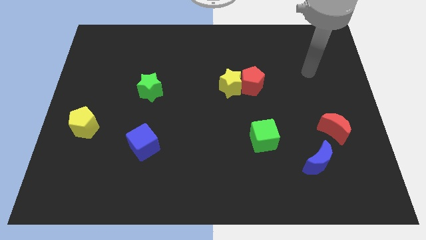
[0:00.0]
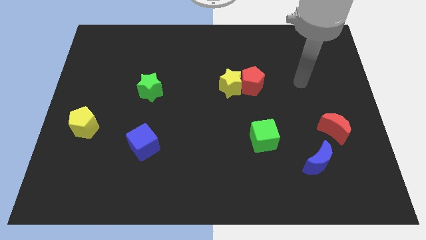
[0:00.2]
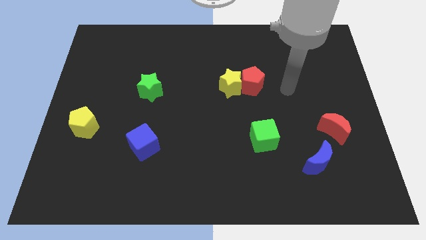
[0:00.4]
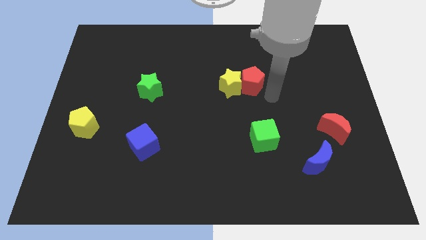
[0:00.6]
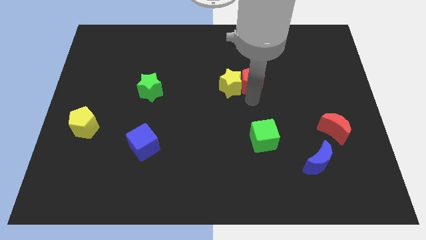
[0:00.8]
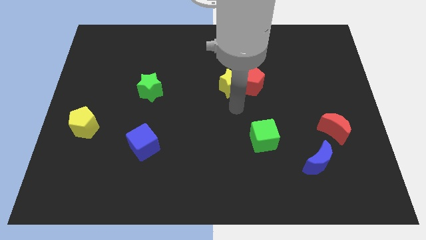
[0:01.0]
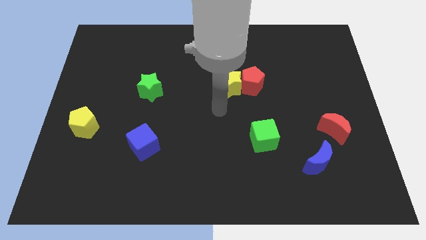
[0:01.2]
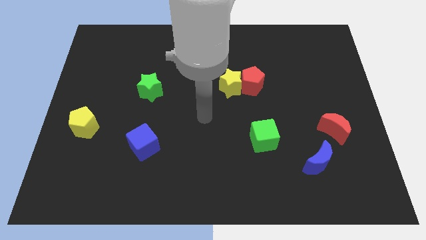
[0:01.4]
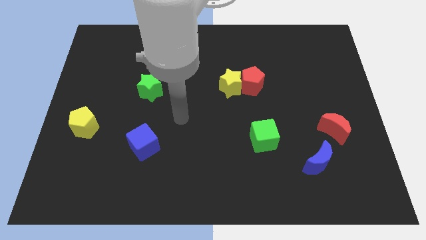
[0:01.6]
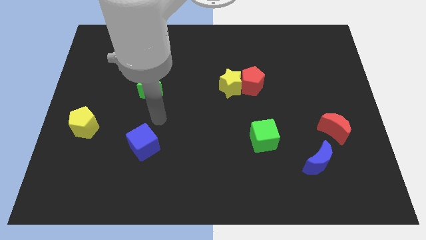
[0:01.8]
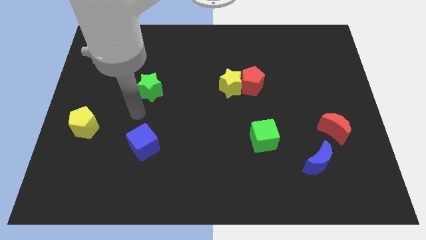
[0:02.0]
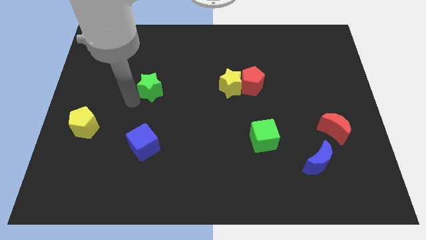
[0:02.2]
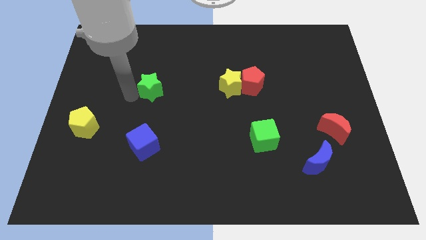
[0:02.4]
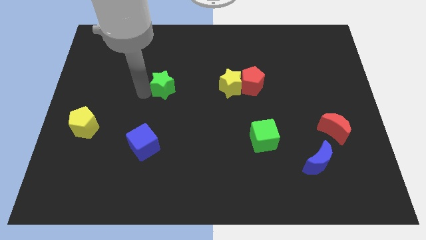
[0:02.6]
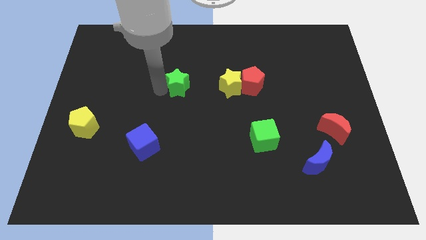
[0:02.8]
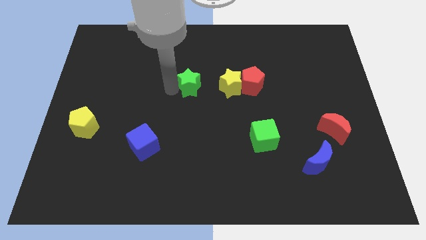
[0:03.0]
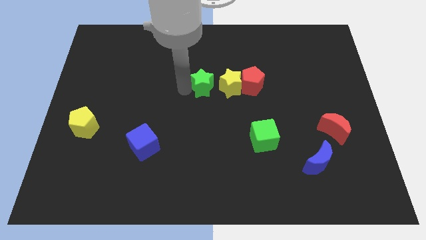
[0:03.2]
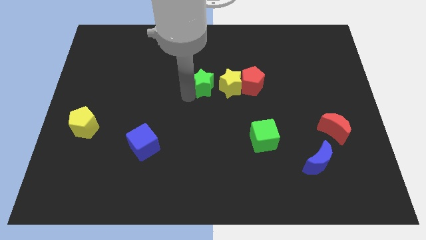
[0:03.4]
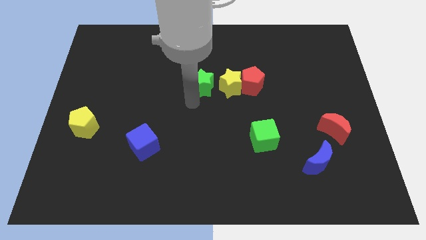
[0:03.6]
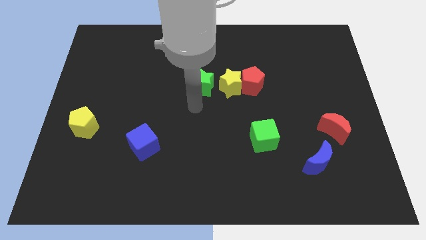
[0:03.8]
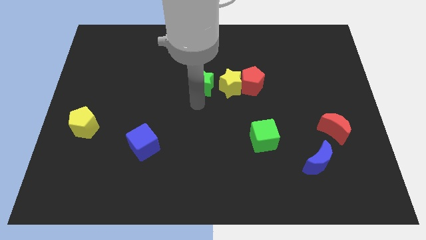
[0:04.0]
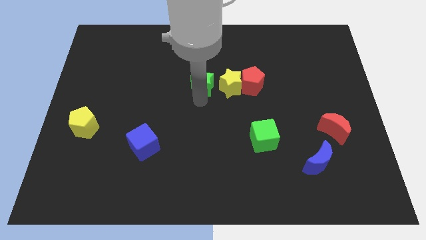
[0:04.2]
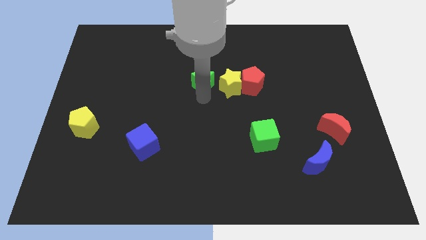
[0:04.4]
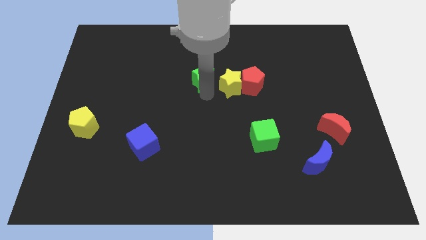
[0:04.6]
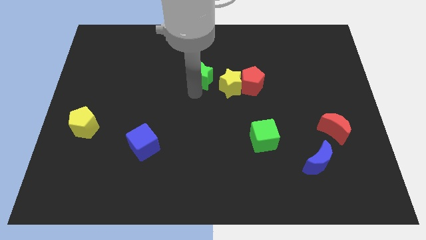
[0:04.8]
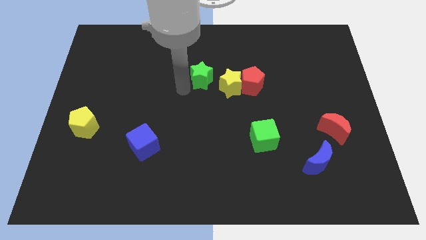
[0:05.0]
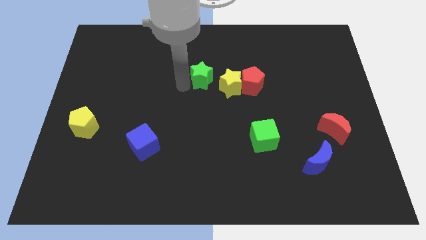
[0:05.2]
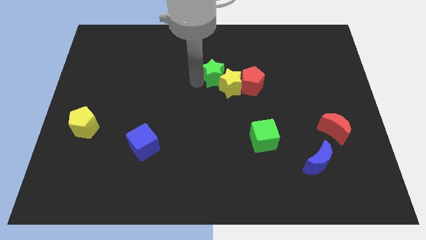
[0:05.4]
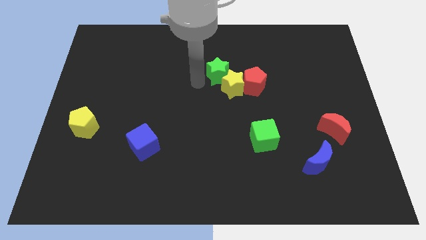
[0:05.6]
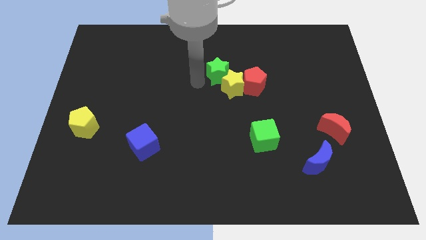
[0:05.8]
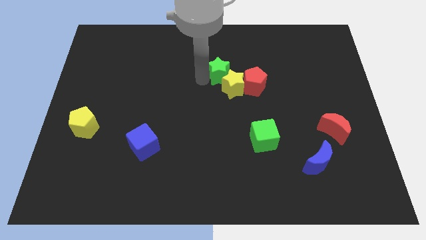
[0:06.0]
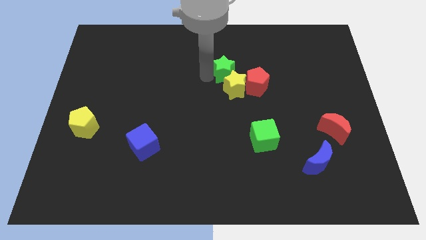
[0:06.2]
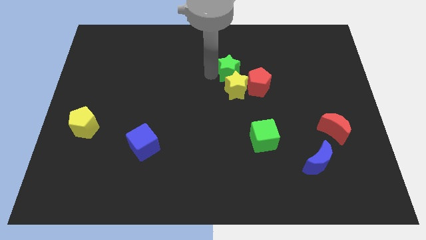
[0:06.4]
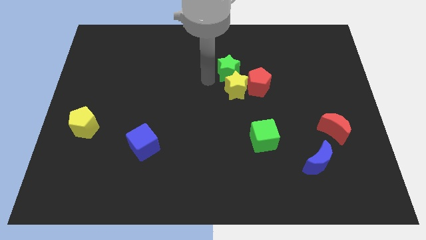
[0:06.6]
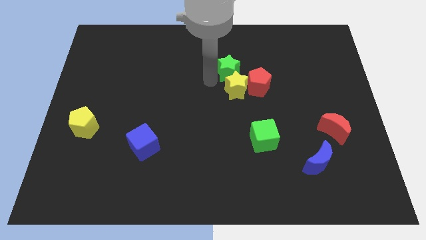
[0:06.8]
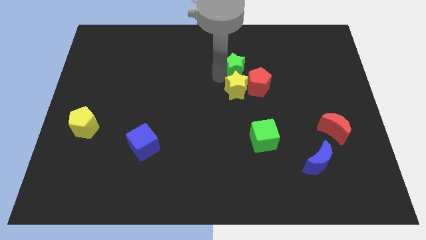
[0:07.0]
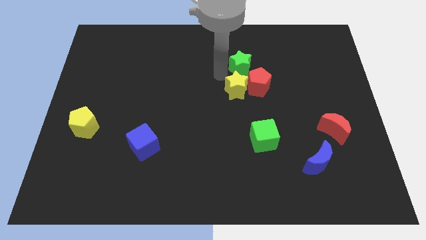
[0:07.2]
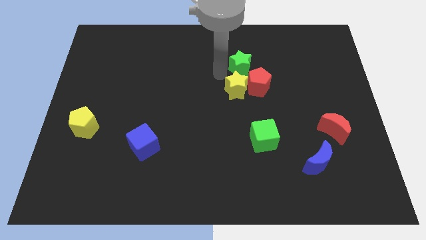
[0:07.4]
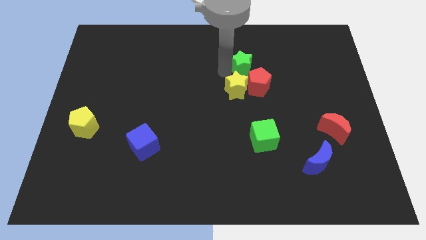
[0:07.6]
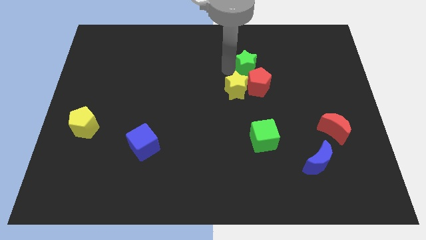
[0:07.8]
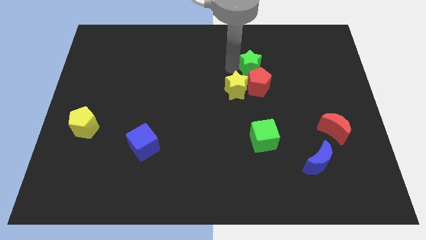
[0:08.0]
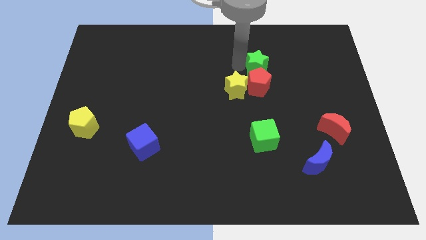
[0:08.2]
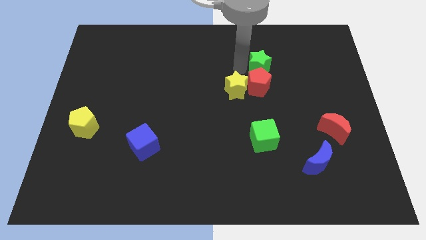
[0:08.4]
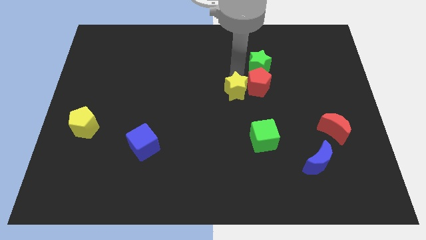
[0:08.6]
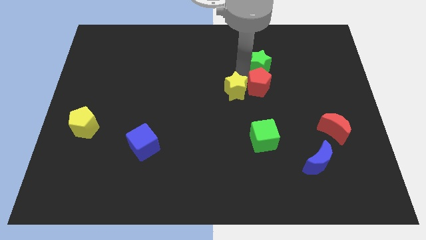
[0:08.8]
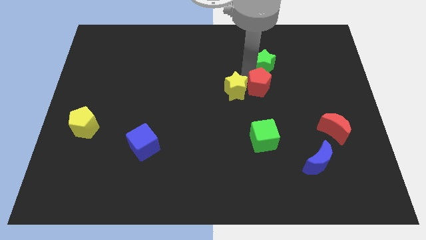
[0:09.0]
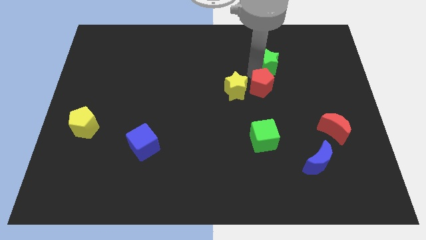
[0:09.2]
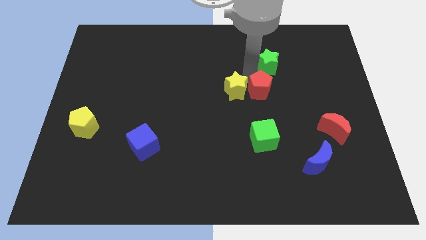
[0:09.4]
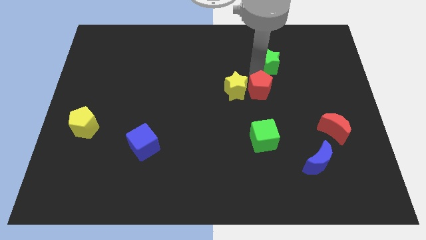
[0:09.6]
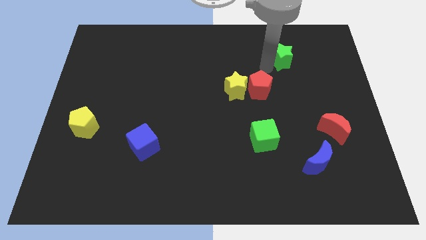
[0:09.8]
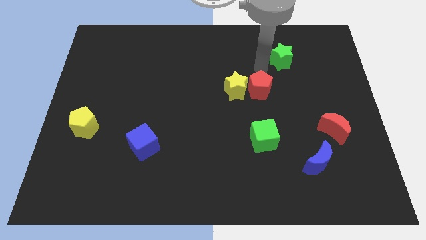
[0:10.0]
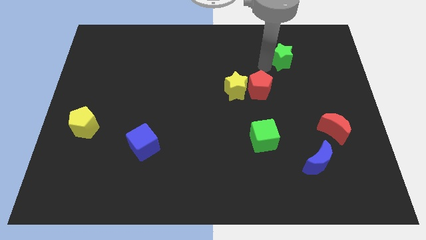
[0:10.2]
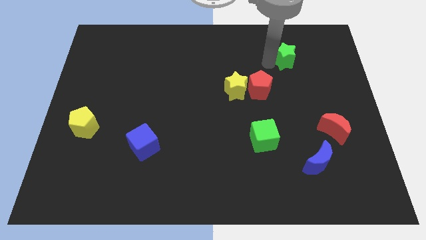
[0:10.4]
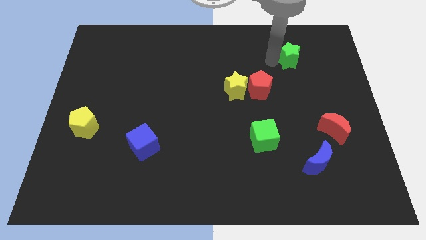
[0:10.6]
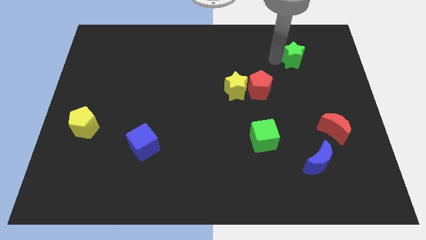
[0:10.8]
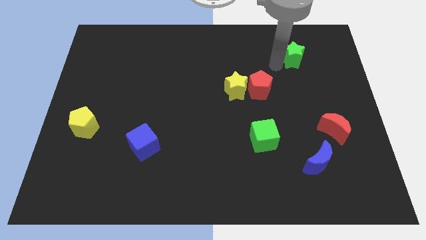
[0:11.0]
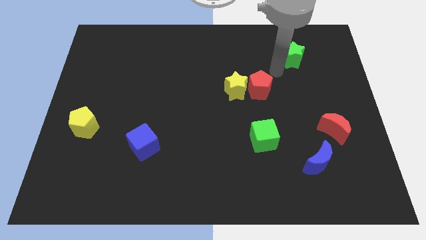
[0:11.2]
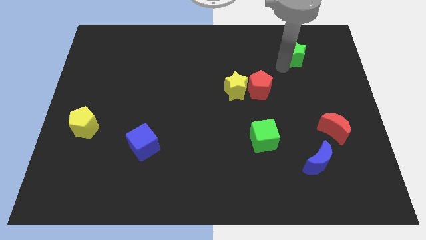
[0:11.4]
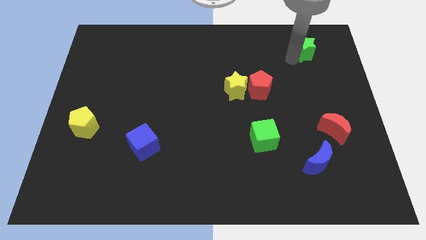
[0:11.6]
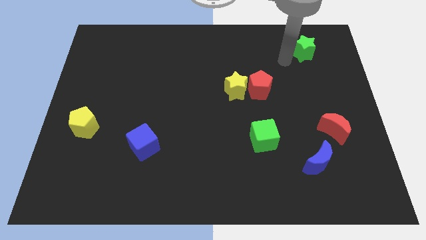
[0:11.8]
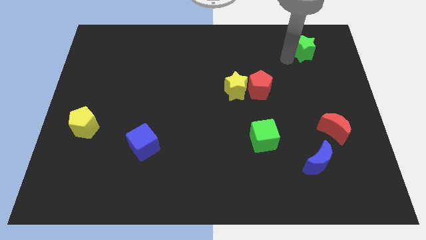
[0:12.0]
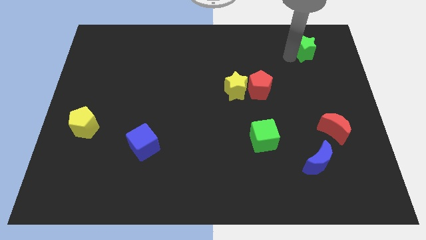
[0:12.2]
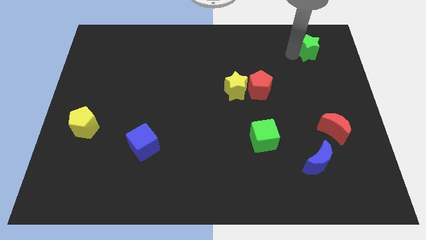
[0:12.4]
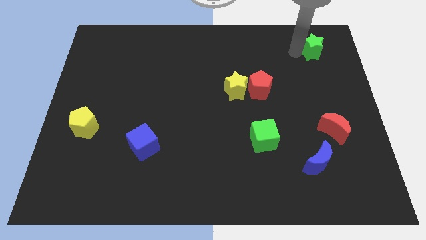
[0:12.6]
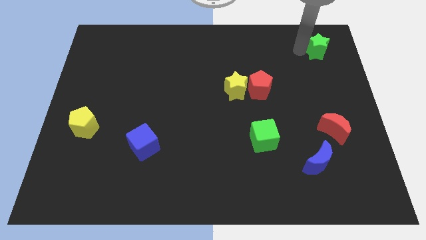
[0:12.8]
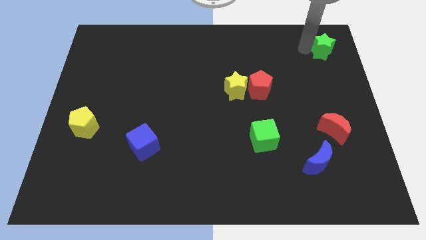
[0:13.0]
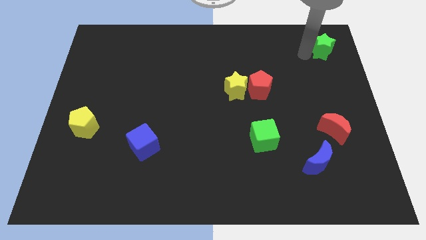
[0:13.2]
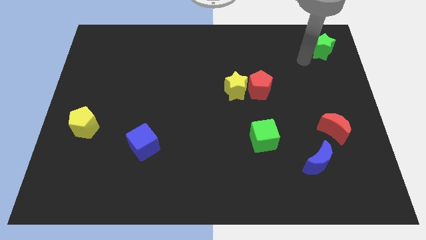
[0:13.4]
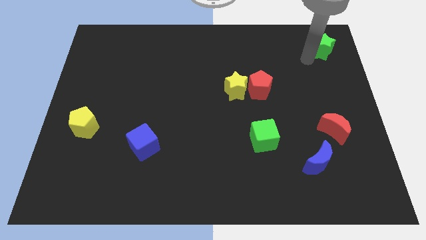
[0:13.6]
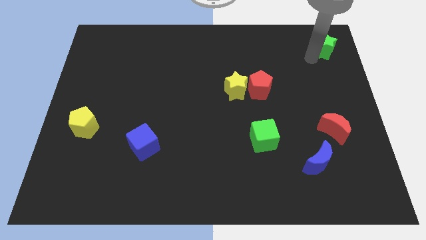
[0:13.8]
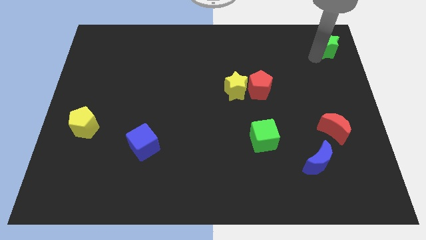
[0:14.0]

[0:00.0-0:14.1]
slide the green star to the top right corner

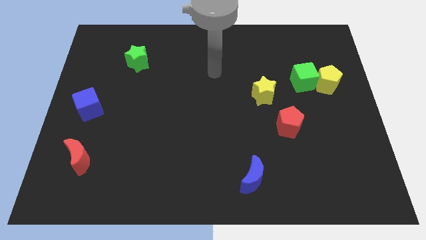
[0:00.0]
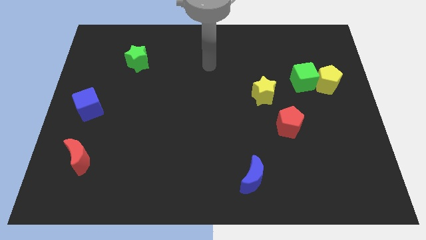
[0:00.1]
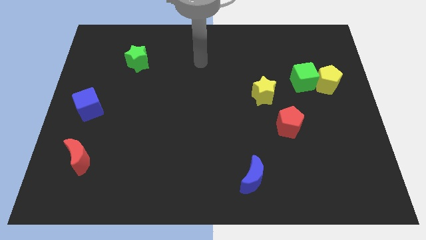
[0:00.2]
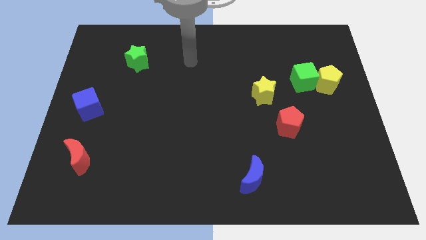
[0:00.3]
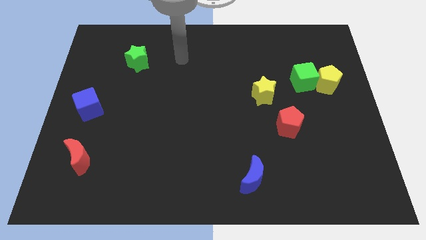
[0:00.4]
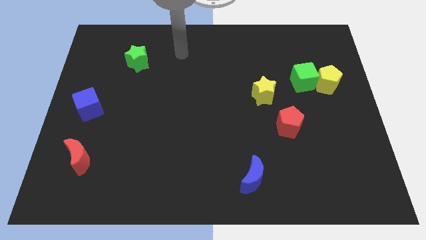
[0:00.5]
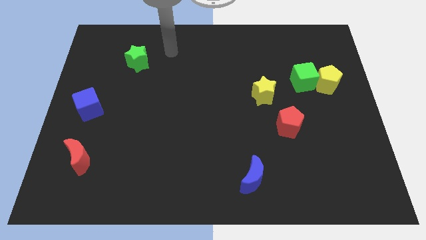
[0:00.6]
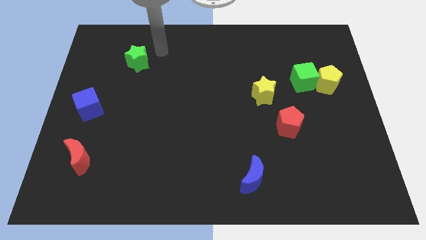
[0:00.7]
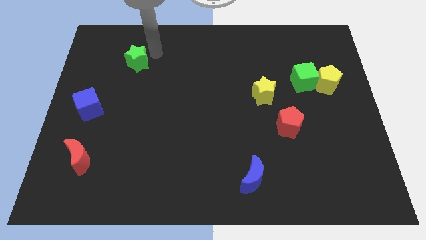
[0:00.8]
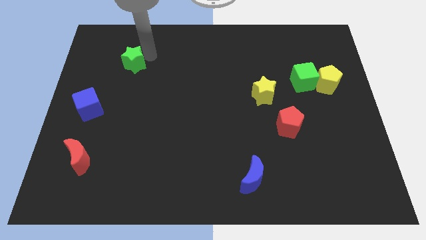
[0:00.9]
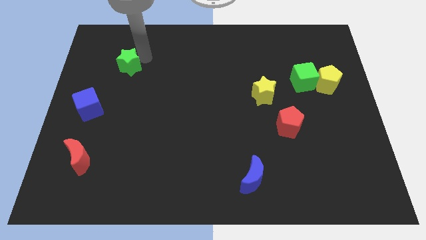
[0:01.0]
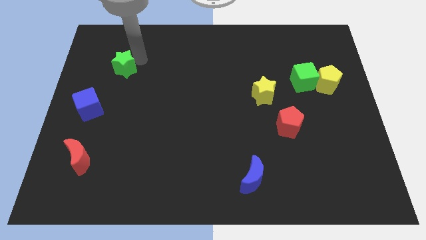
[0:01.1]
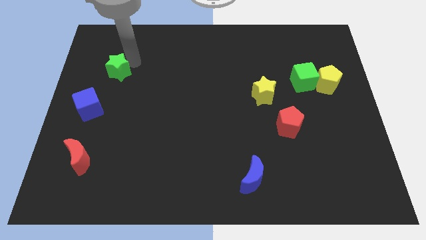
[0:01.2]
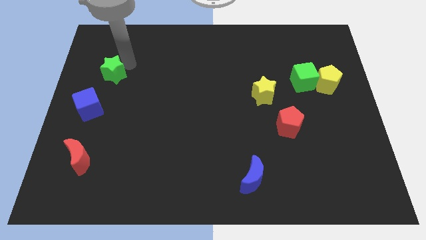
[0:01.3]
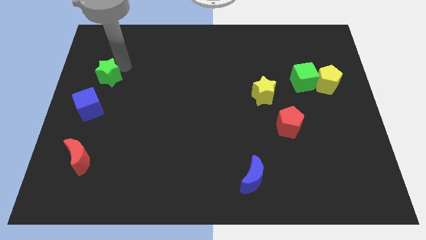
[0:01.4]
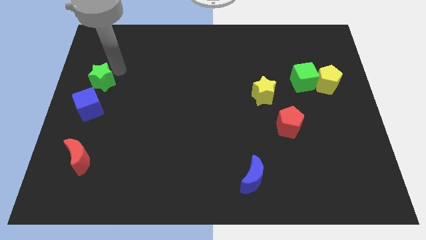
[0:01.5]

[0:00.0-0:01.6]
slide the green star to the left side
